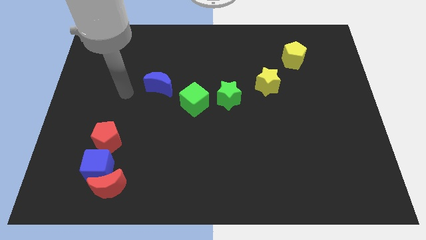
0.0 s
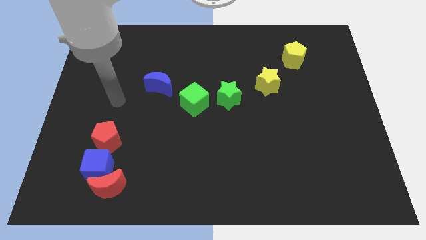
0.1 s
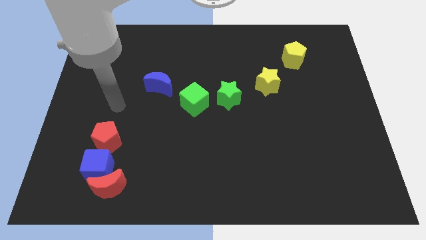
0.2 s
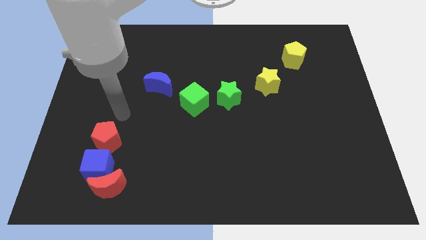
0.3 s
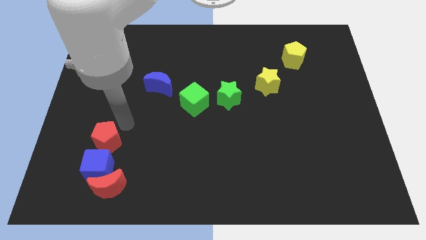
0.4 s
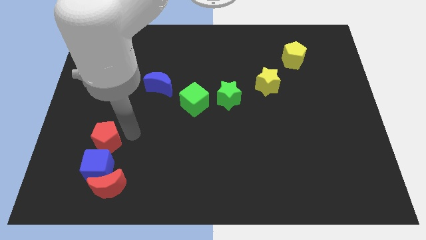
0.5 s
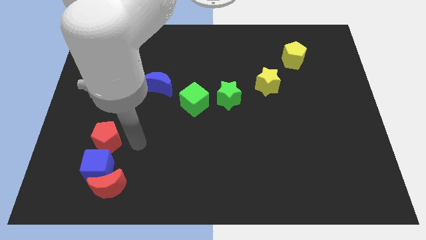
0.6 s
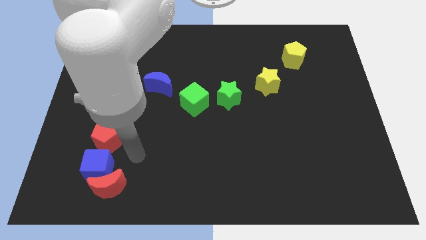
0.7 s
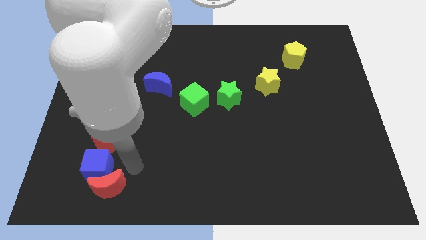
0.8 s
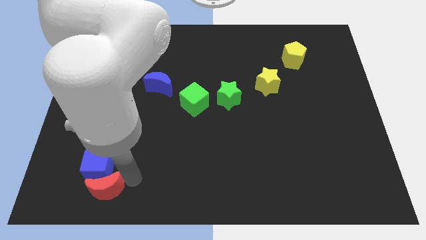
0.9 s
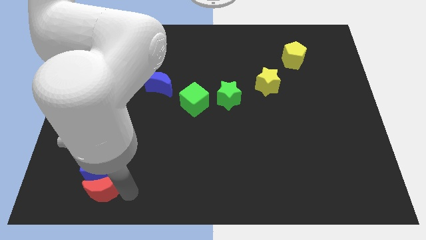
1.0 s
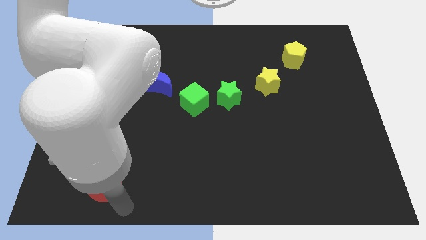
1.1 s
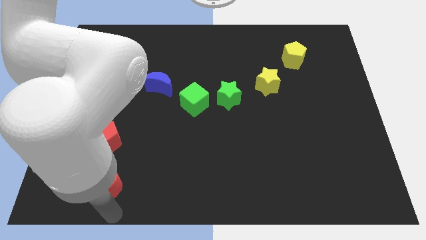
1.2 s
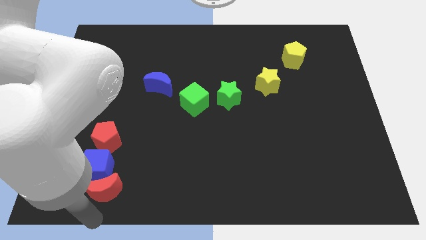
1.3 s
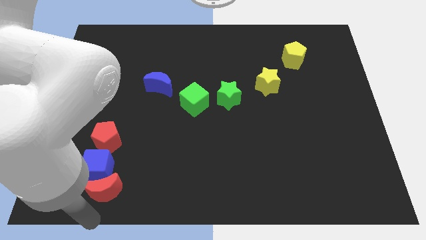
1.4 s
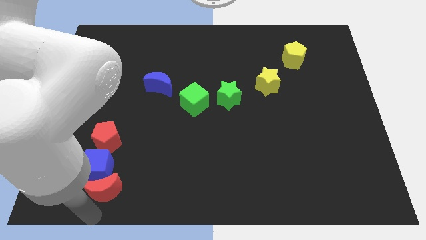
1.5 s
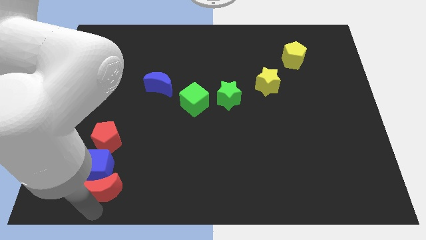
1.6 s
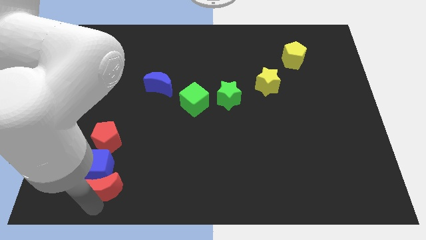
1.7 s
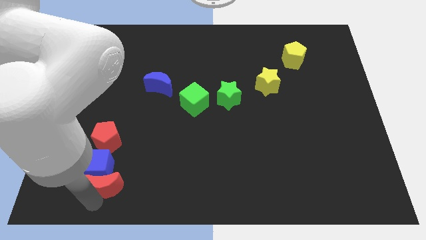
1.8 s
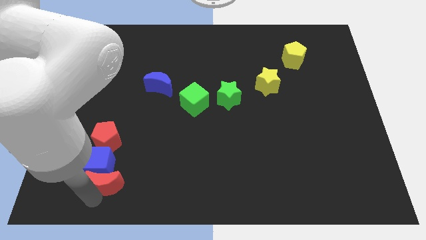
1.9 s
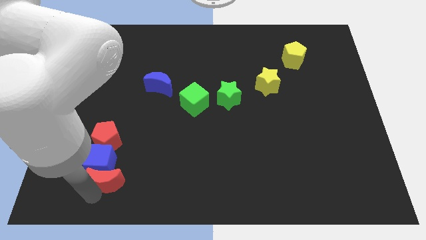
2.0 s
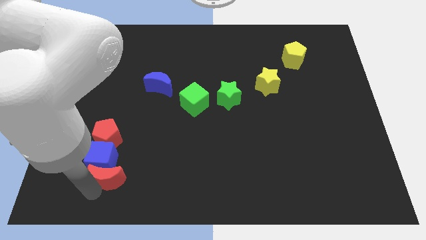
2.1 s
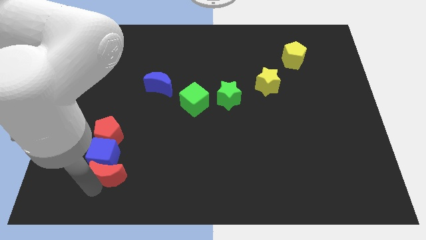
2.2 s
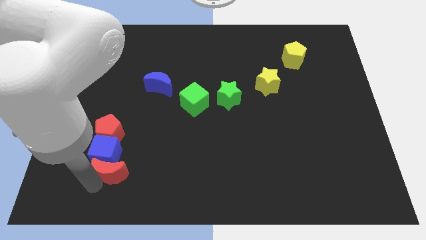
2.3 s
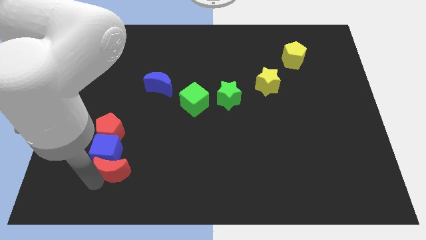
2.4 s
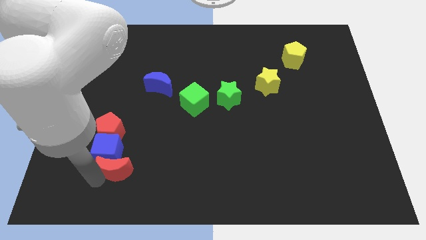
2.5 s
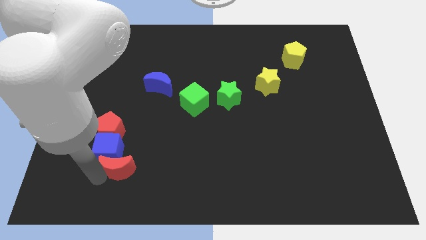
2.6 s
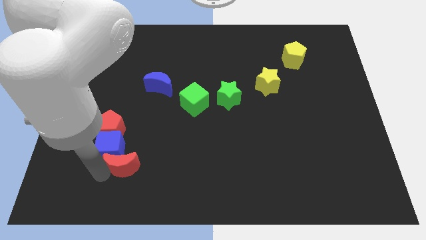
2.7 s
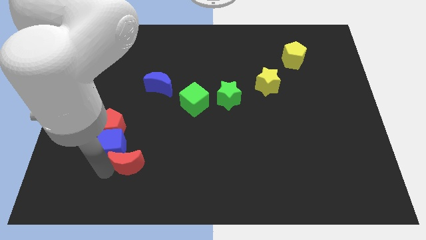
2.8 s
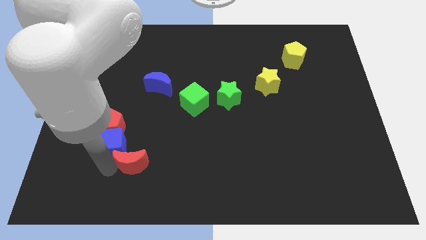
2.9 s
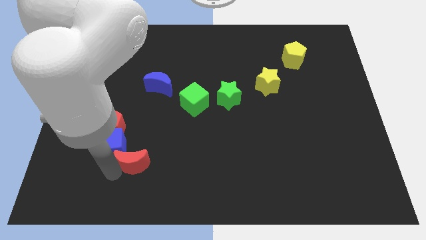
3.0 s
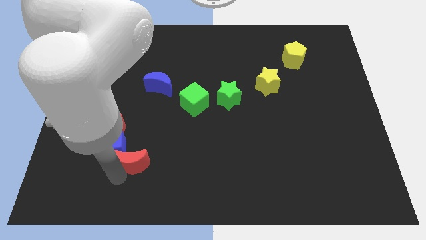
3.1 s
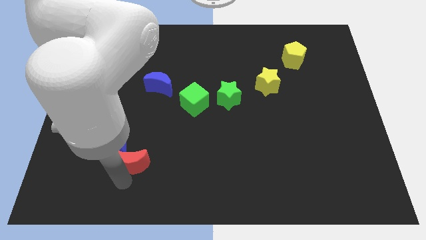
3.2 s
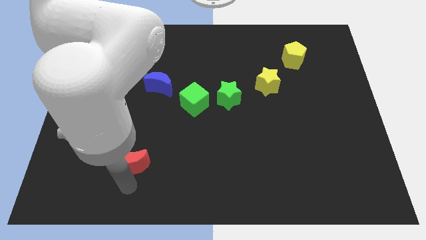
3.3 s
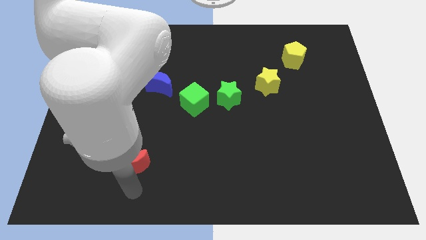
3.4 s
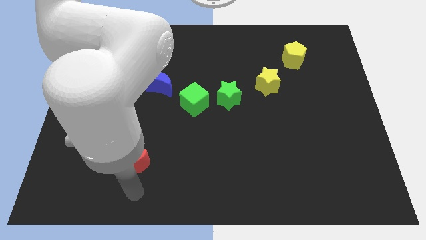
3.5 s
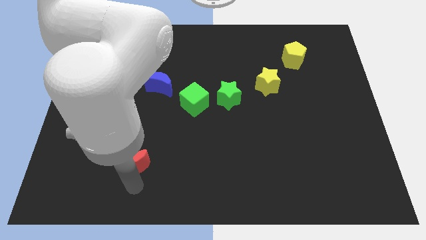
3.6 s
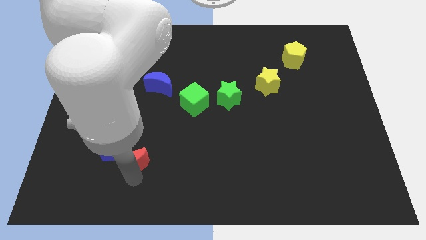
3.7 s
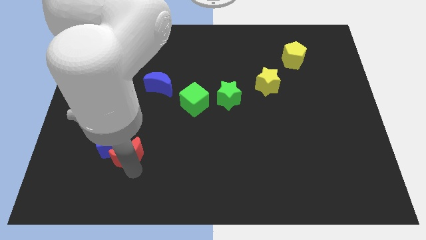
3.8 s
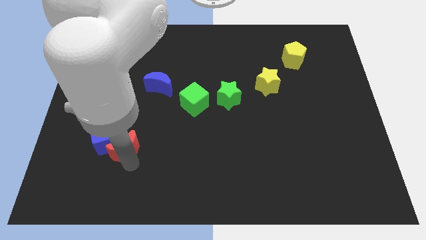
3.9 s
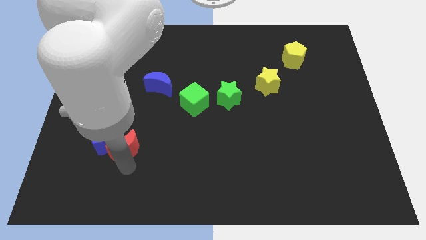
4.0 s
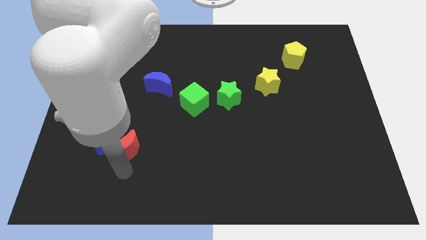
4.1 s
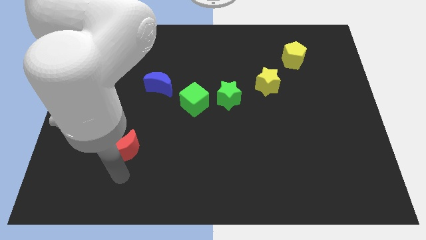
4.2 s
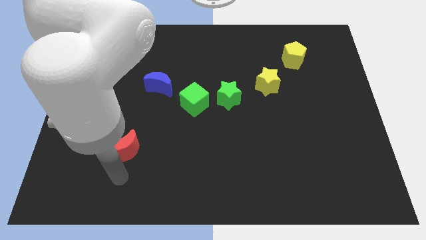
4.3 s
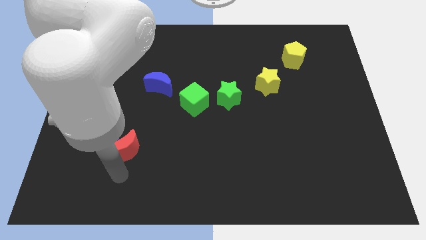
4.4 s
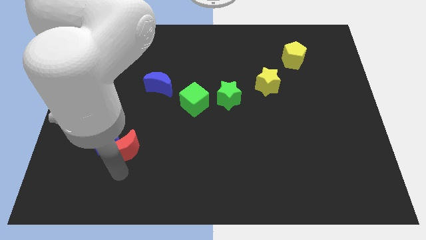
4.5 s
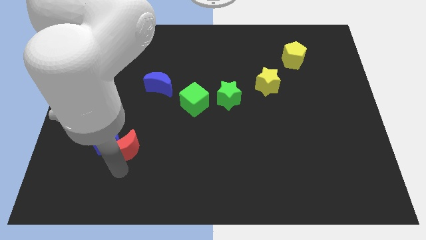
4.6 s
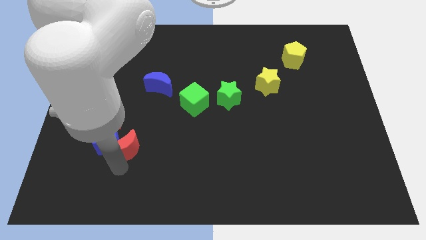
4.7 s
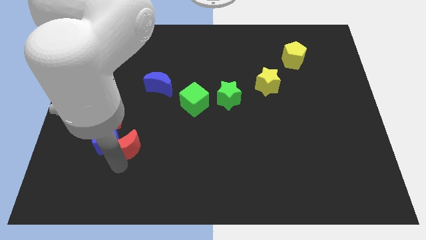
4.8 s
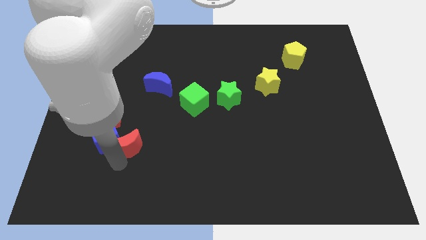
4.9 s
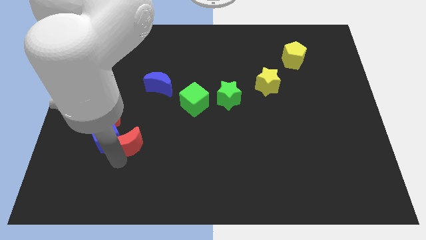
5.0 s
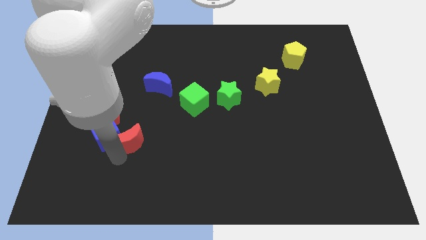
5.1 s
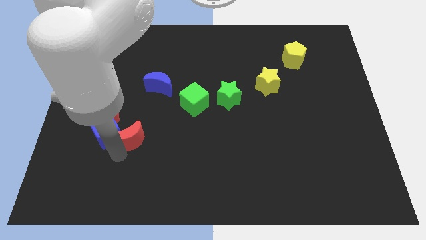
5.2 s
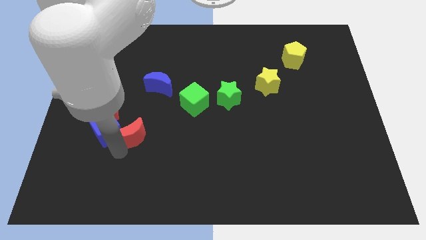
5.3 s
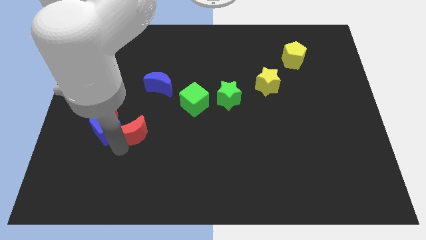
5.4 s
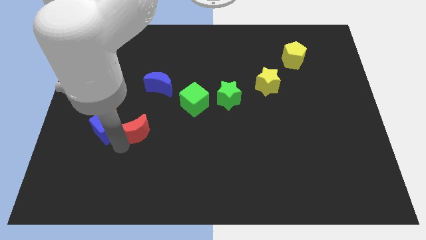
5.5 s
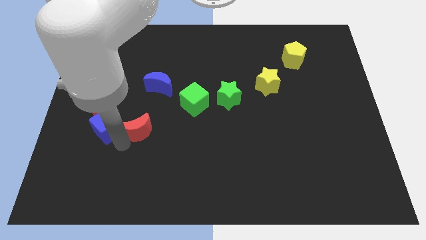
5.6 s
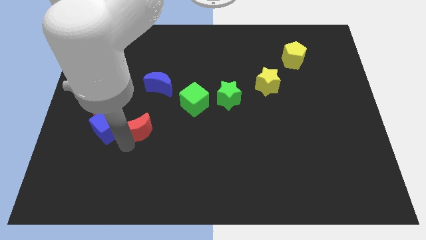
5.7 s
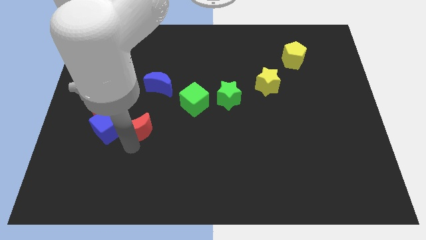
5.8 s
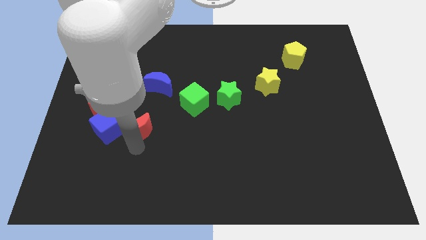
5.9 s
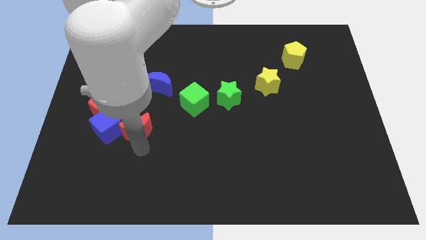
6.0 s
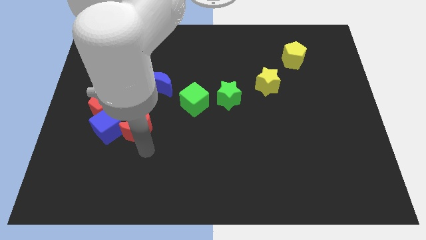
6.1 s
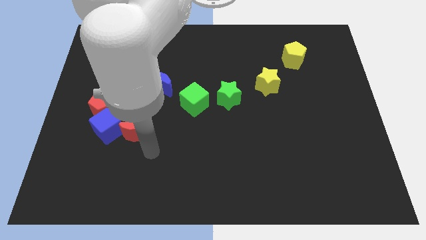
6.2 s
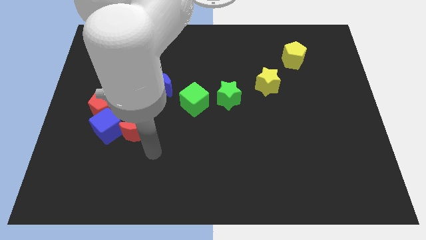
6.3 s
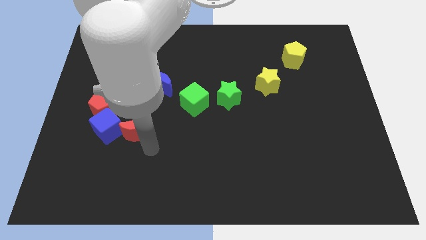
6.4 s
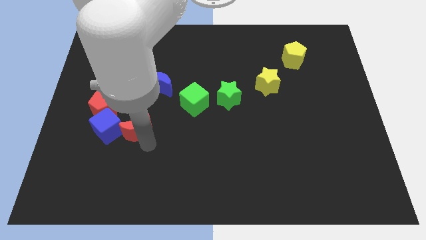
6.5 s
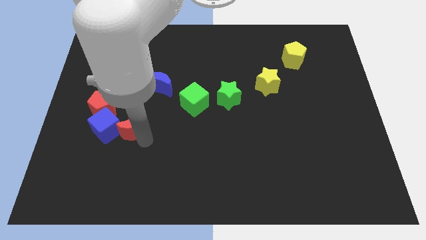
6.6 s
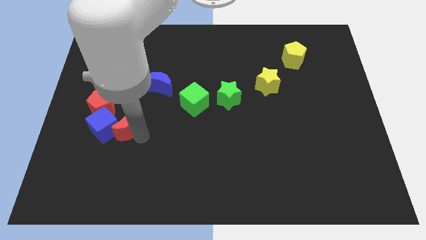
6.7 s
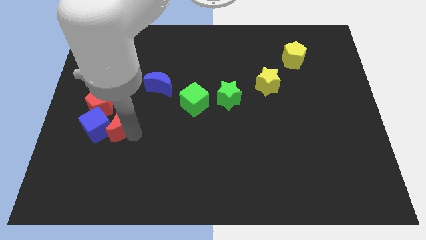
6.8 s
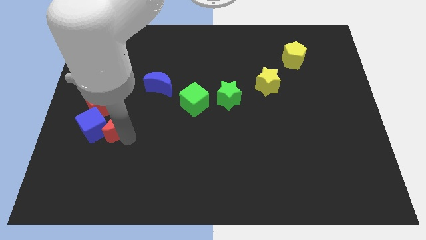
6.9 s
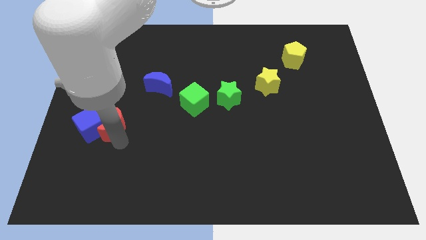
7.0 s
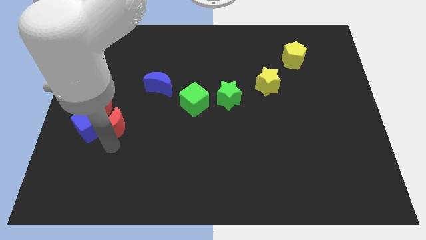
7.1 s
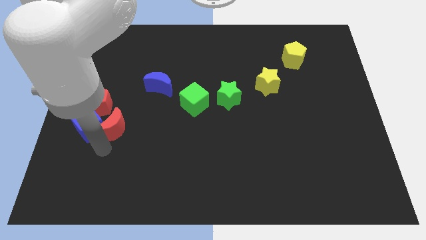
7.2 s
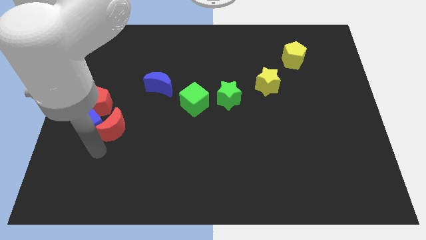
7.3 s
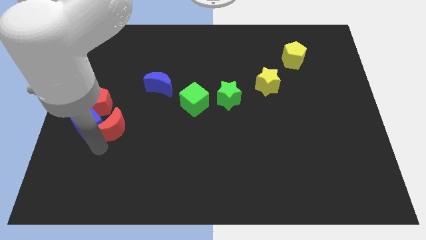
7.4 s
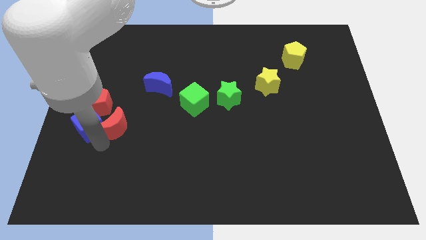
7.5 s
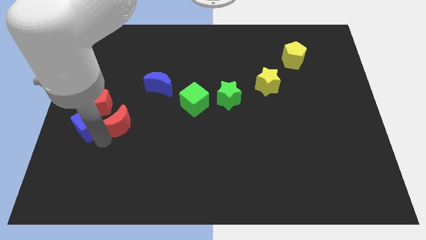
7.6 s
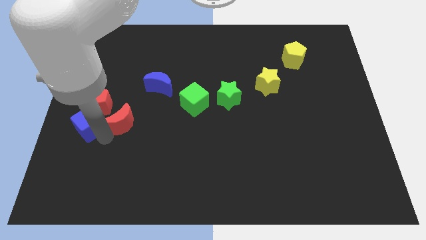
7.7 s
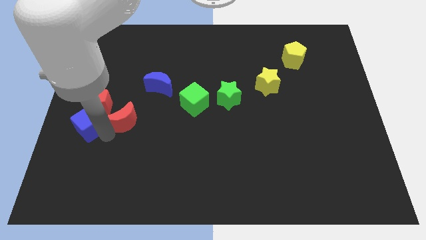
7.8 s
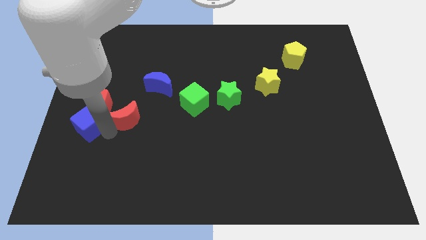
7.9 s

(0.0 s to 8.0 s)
slide the red moon to the bottom left side of the blue moon
